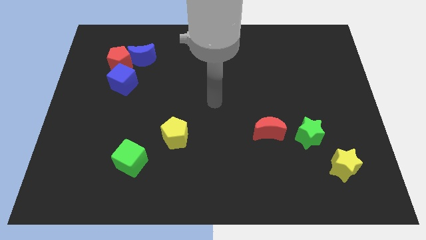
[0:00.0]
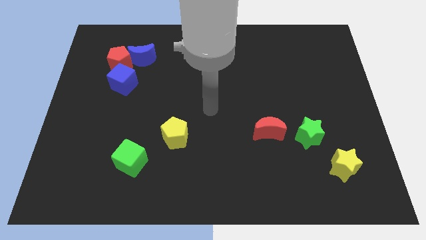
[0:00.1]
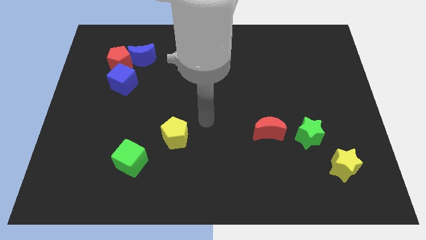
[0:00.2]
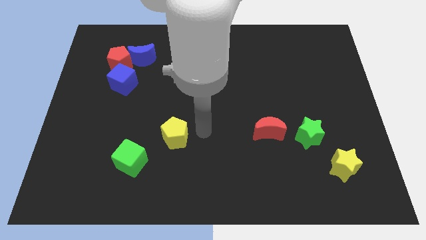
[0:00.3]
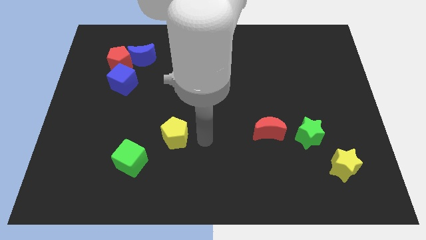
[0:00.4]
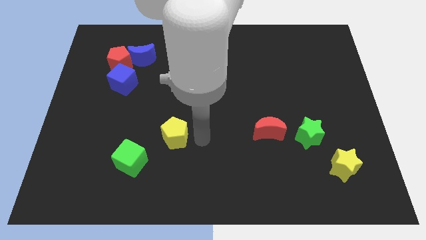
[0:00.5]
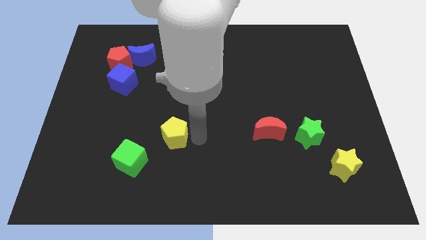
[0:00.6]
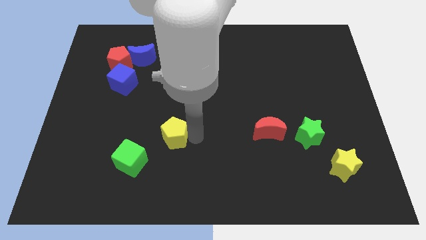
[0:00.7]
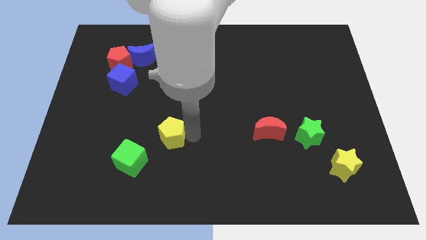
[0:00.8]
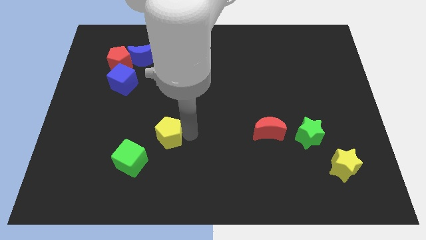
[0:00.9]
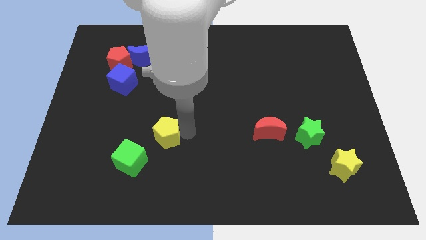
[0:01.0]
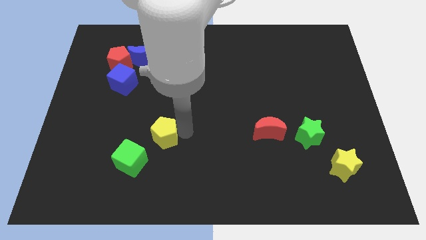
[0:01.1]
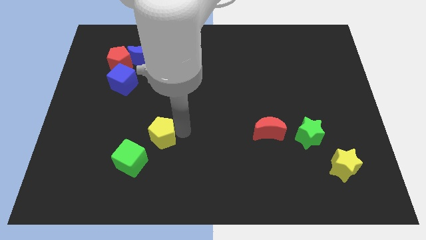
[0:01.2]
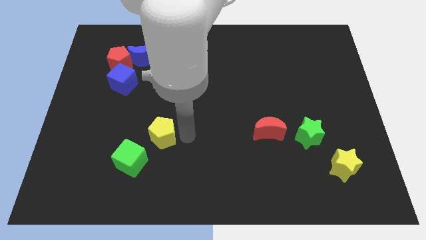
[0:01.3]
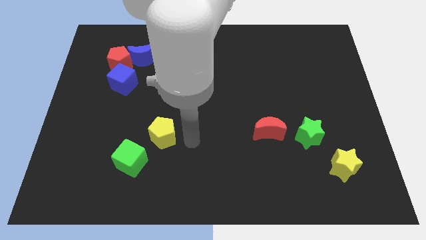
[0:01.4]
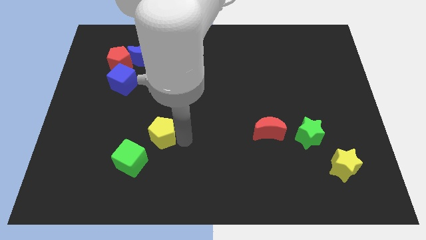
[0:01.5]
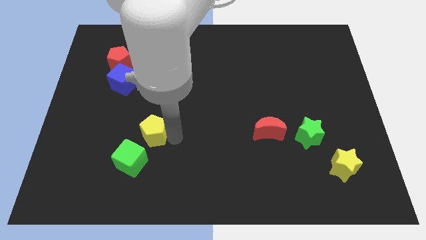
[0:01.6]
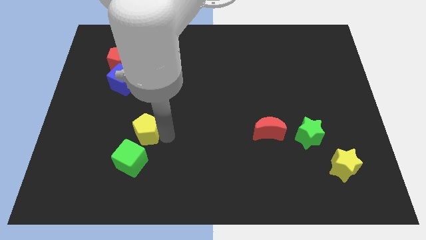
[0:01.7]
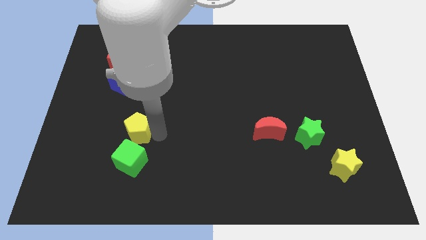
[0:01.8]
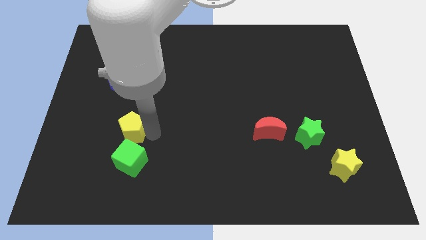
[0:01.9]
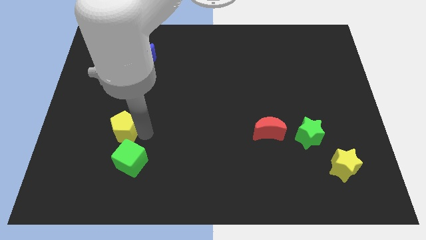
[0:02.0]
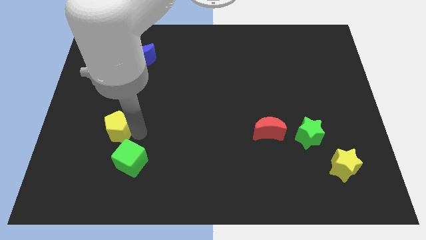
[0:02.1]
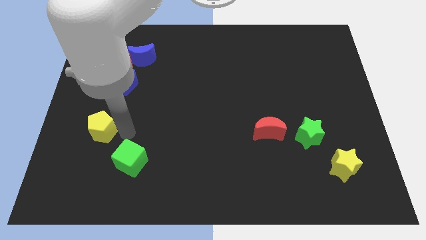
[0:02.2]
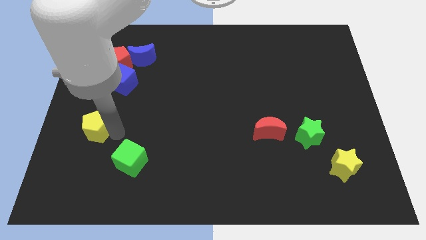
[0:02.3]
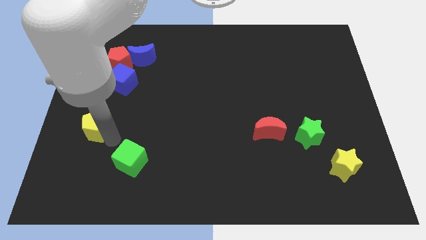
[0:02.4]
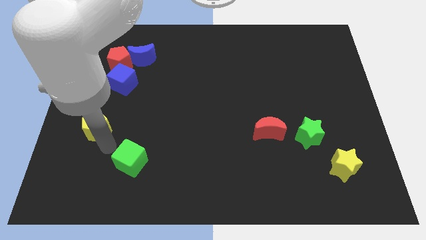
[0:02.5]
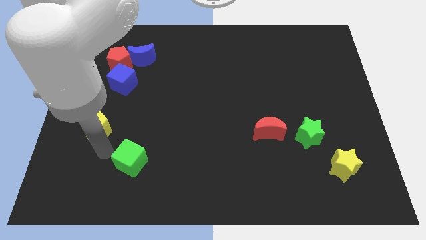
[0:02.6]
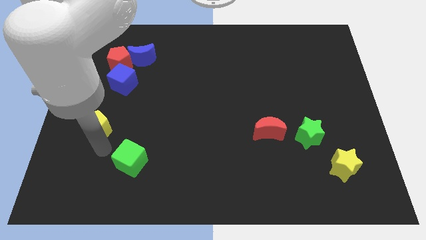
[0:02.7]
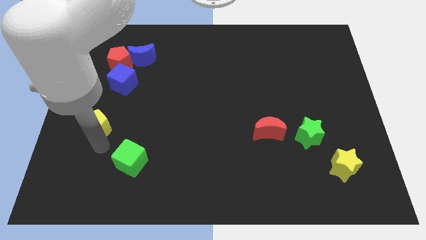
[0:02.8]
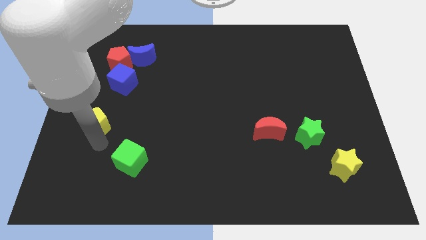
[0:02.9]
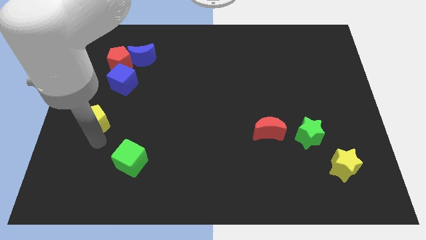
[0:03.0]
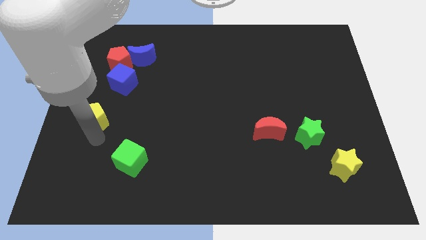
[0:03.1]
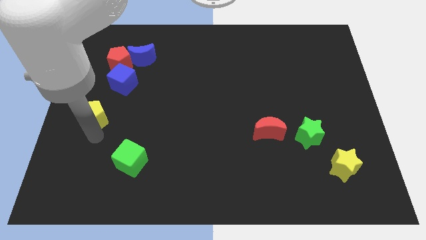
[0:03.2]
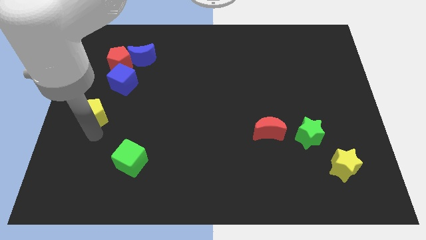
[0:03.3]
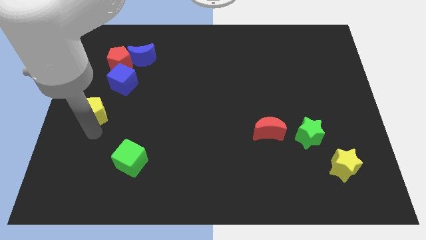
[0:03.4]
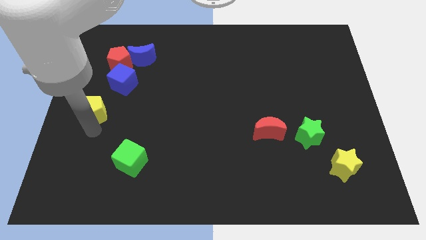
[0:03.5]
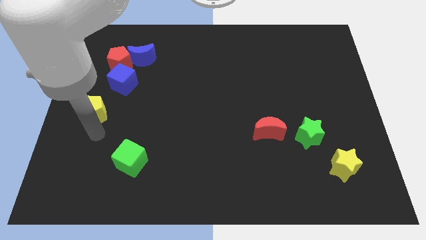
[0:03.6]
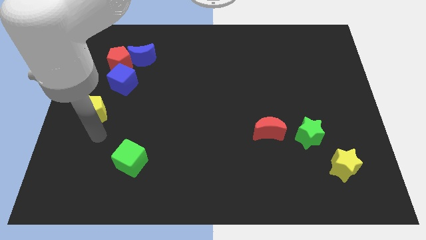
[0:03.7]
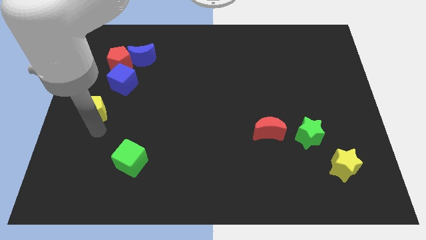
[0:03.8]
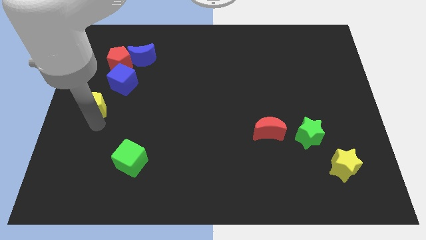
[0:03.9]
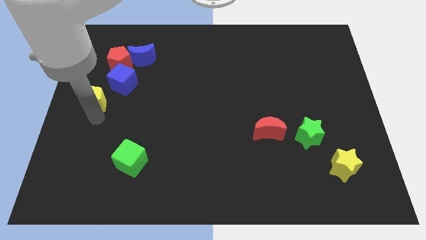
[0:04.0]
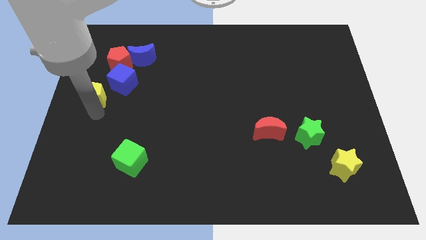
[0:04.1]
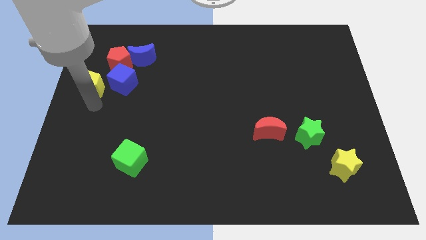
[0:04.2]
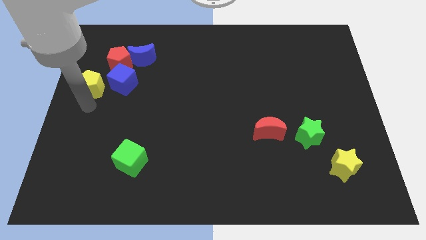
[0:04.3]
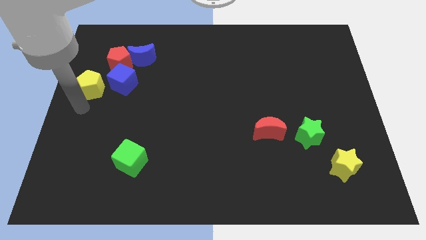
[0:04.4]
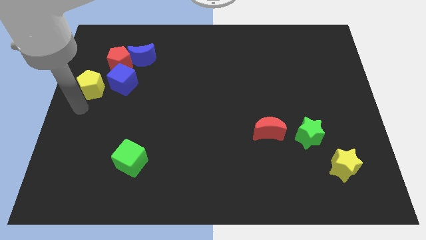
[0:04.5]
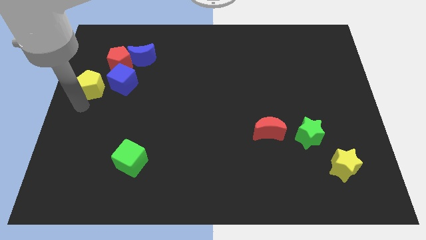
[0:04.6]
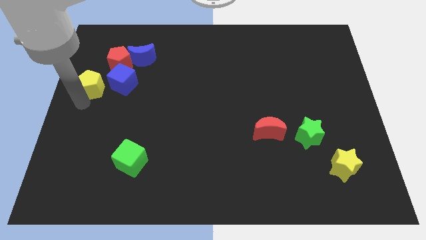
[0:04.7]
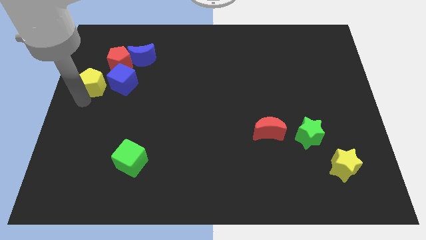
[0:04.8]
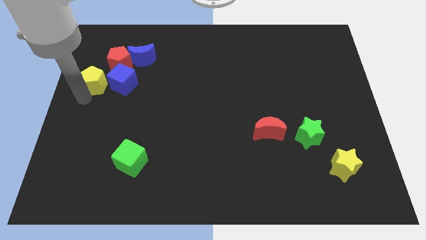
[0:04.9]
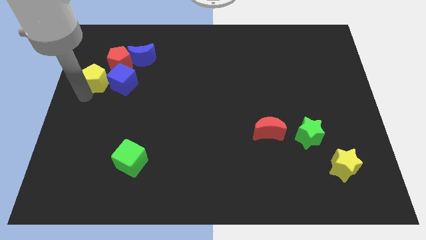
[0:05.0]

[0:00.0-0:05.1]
push the yellow pentagon diagonally up and to the left of the blue cube

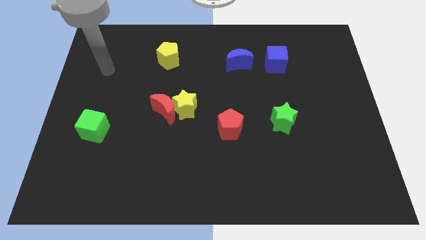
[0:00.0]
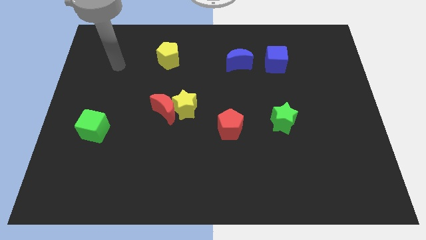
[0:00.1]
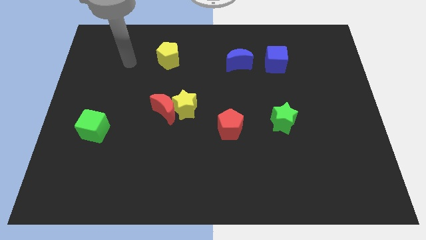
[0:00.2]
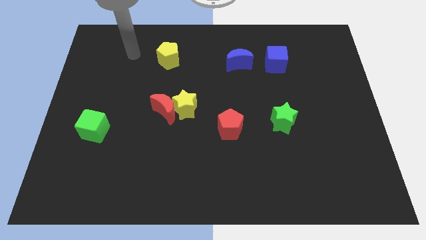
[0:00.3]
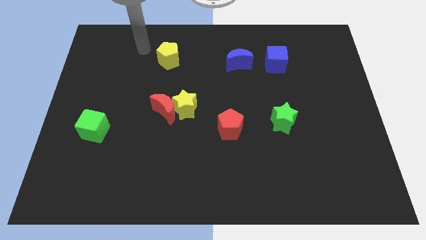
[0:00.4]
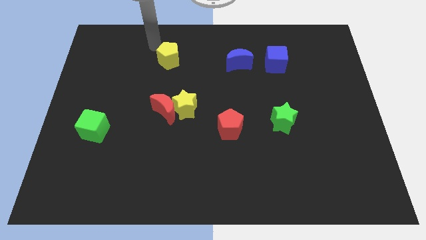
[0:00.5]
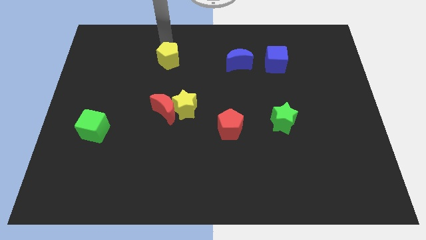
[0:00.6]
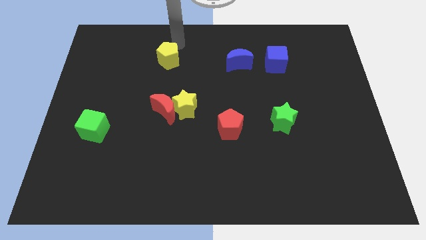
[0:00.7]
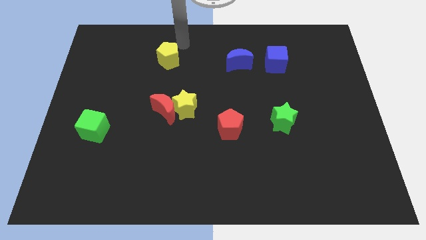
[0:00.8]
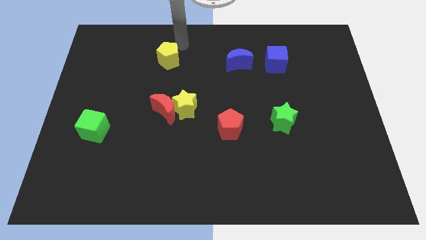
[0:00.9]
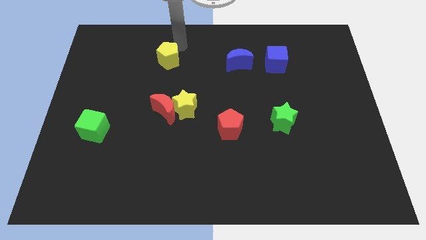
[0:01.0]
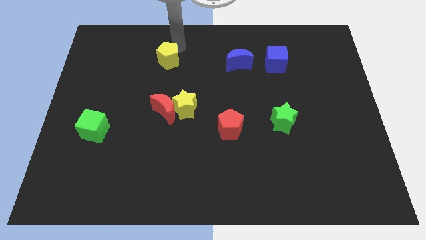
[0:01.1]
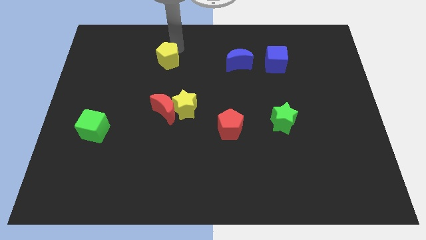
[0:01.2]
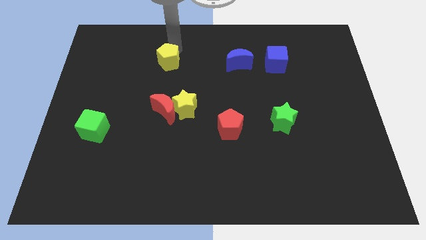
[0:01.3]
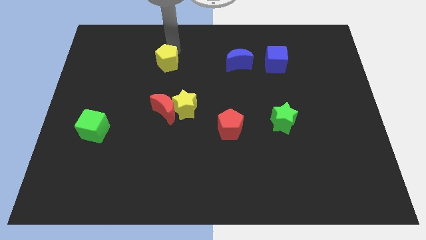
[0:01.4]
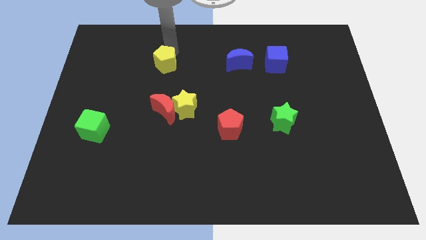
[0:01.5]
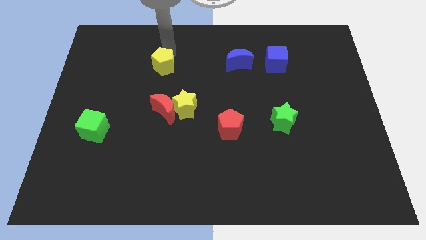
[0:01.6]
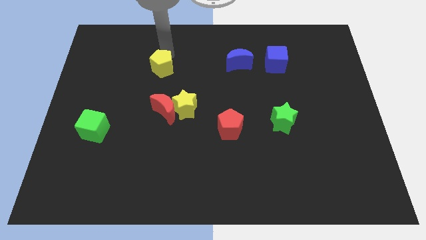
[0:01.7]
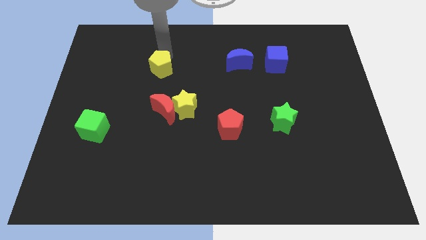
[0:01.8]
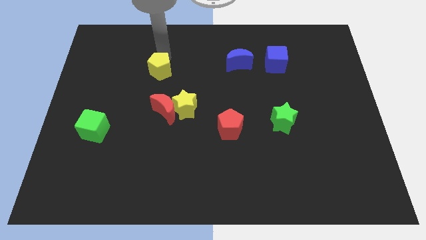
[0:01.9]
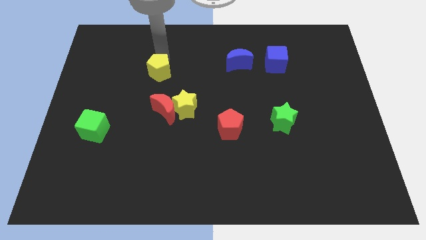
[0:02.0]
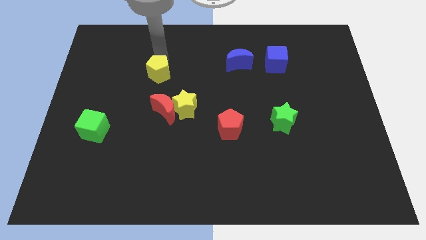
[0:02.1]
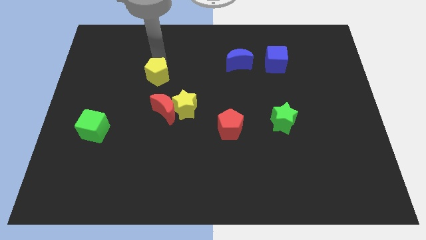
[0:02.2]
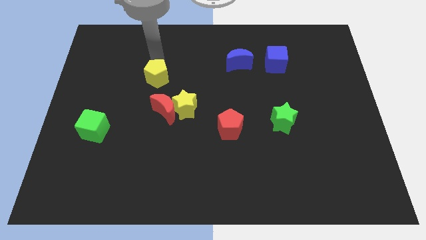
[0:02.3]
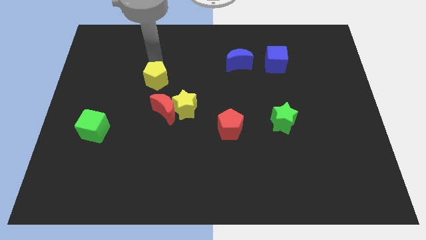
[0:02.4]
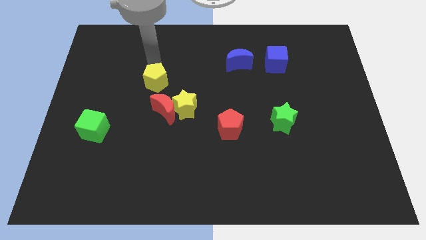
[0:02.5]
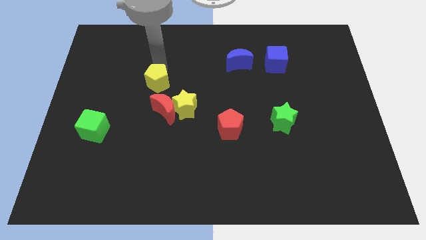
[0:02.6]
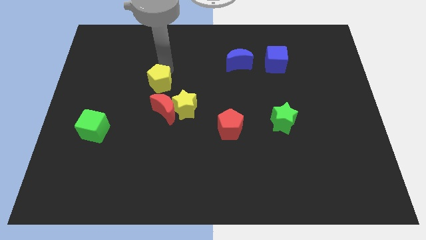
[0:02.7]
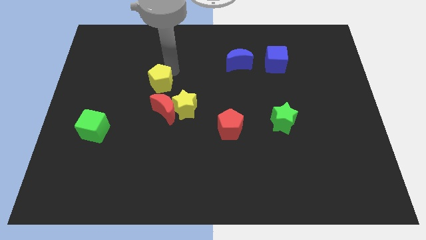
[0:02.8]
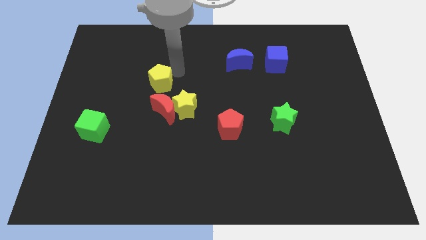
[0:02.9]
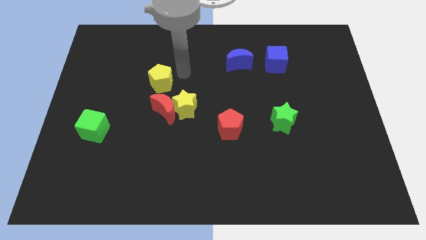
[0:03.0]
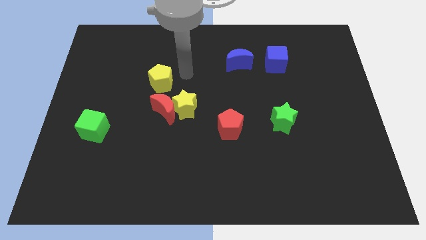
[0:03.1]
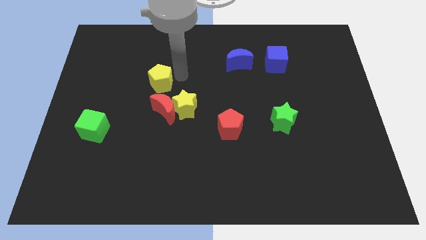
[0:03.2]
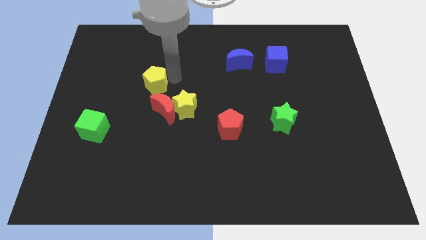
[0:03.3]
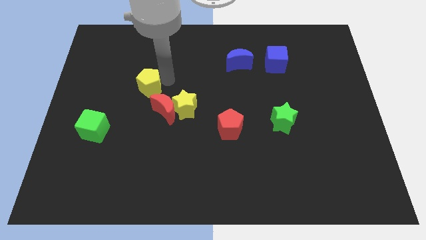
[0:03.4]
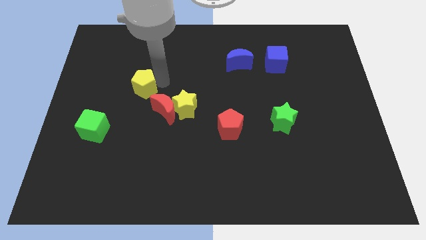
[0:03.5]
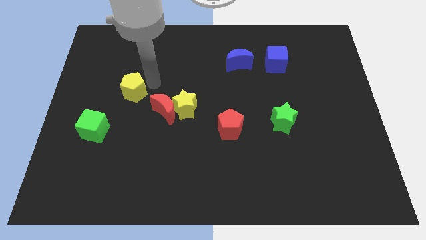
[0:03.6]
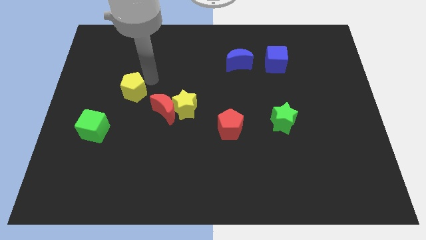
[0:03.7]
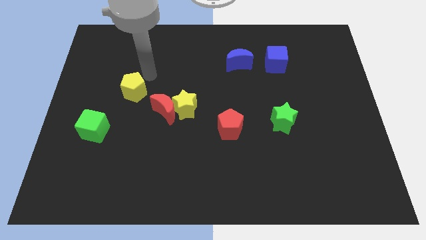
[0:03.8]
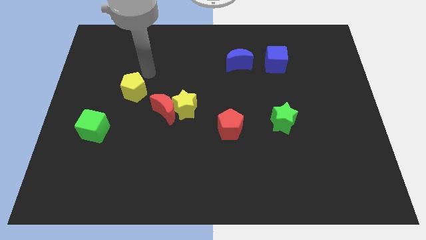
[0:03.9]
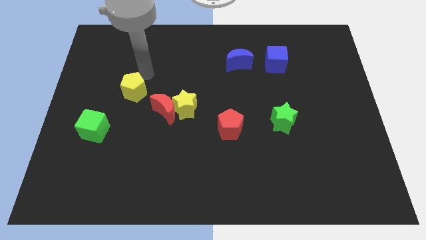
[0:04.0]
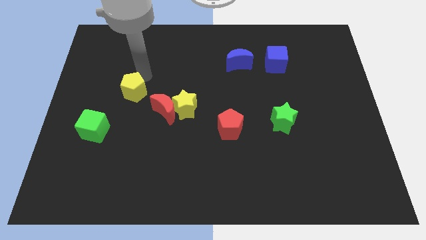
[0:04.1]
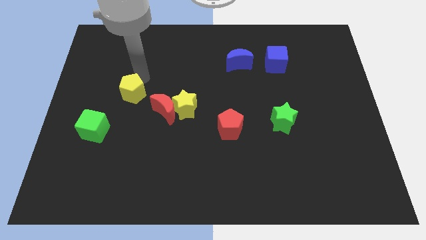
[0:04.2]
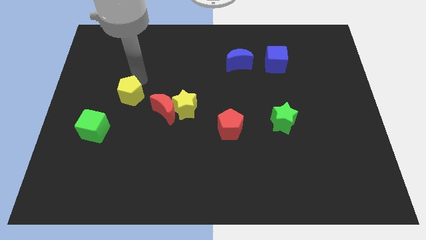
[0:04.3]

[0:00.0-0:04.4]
put the yellow pentagon to the top right of the green cube
